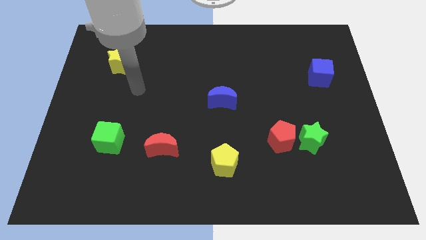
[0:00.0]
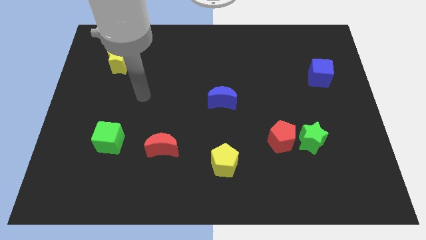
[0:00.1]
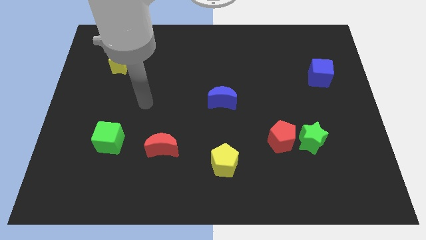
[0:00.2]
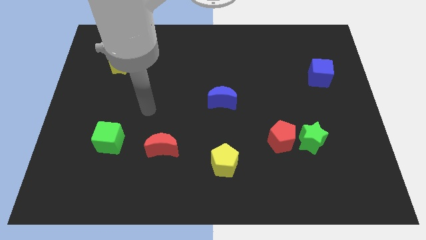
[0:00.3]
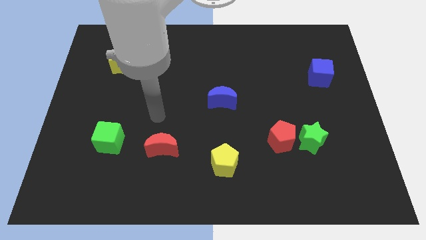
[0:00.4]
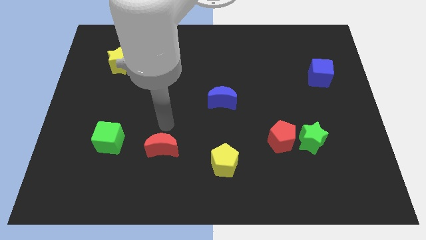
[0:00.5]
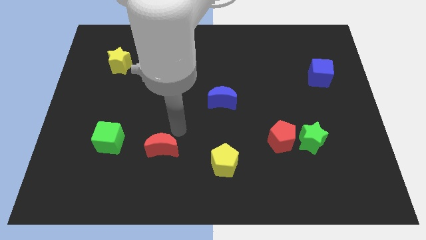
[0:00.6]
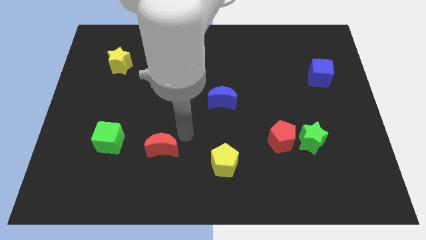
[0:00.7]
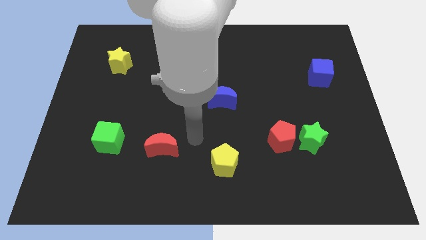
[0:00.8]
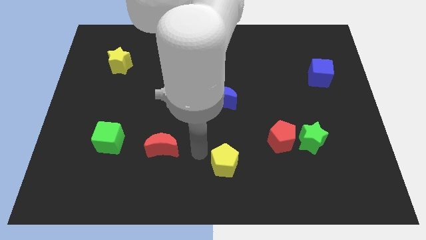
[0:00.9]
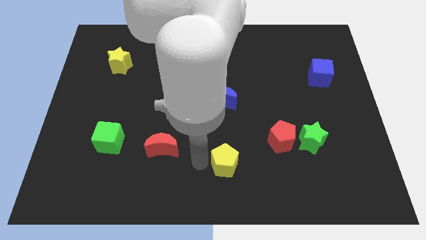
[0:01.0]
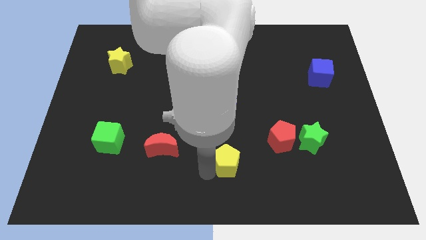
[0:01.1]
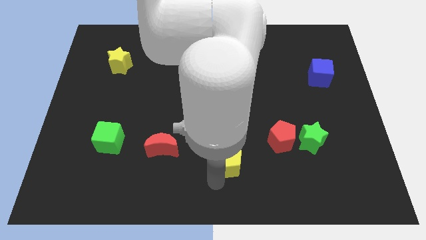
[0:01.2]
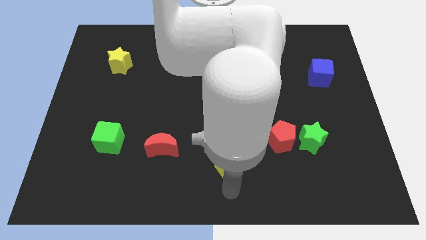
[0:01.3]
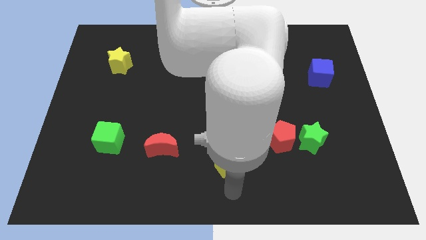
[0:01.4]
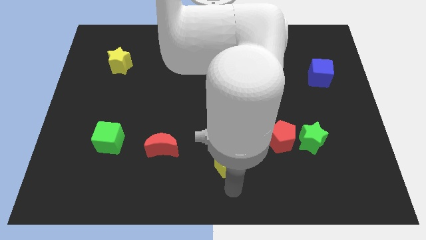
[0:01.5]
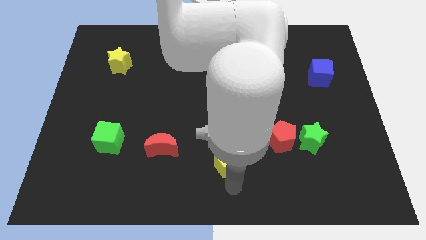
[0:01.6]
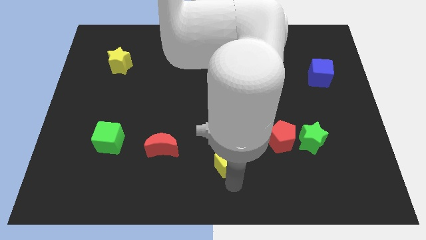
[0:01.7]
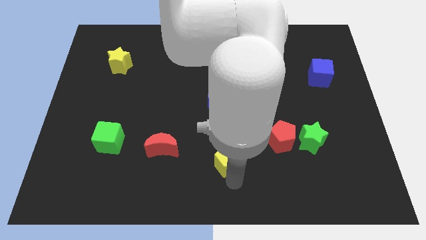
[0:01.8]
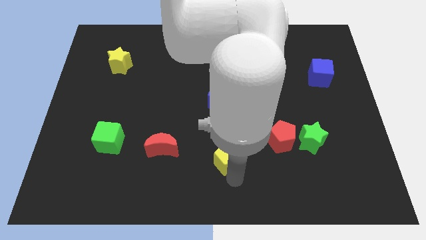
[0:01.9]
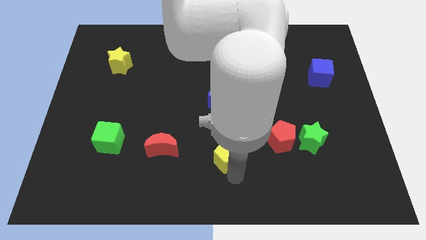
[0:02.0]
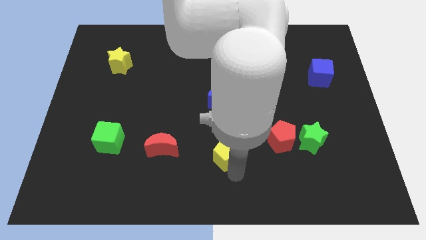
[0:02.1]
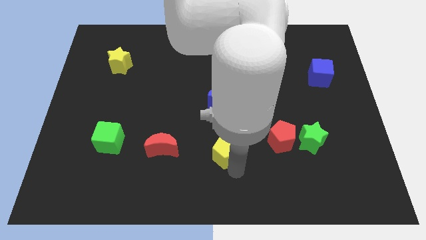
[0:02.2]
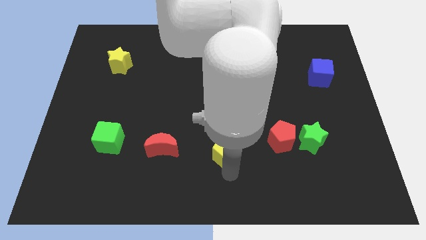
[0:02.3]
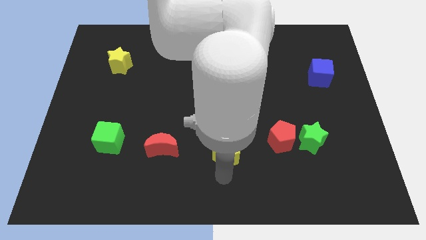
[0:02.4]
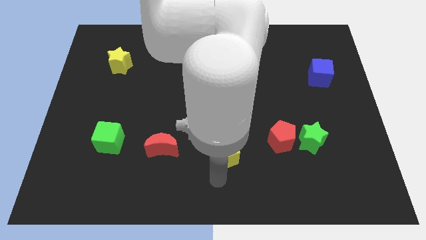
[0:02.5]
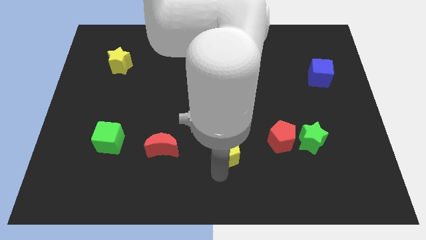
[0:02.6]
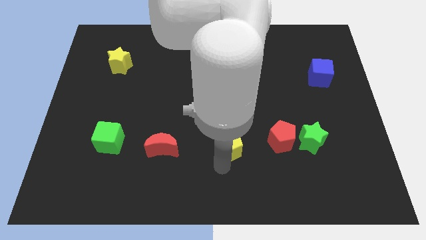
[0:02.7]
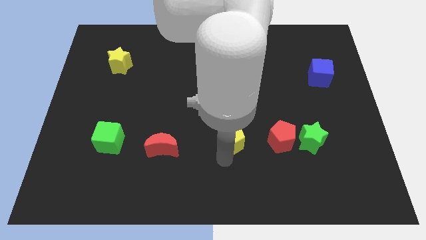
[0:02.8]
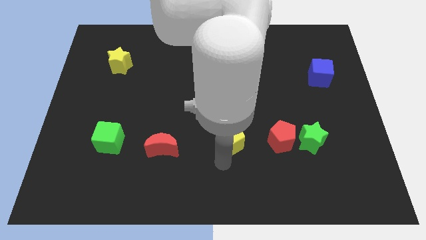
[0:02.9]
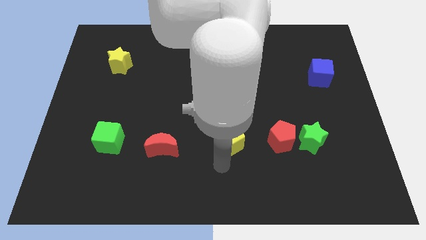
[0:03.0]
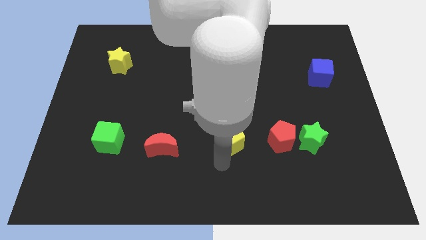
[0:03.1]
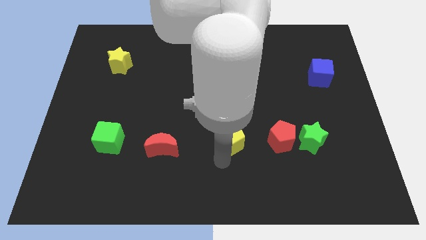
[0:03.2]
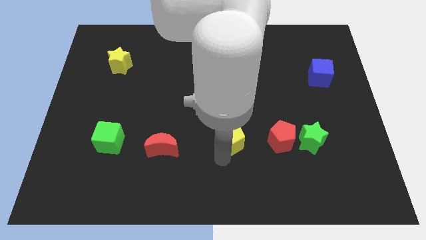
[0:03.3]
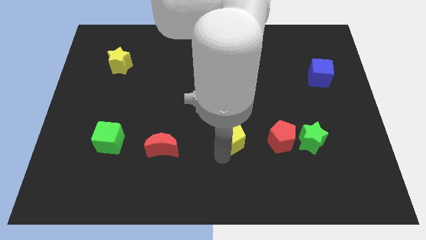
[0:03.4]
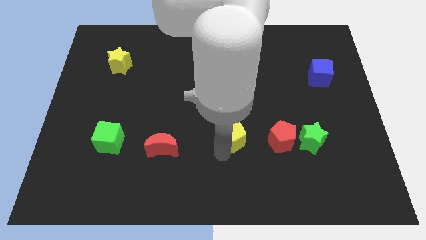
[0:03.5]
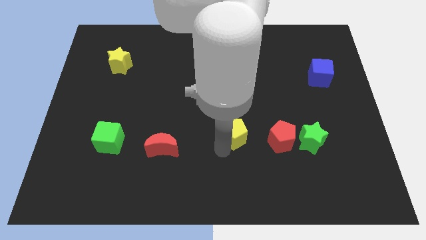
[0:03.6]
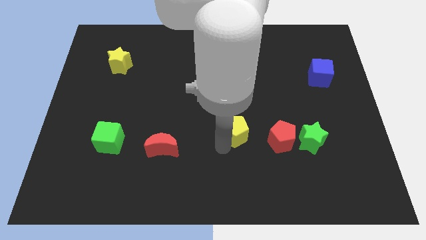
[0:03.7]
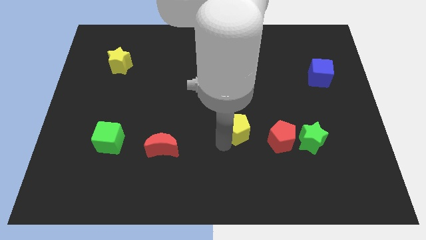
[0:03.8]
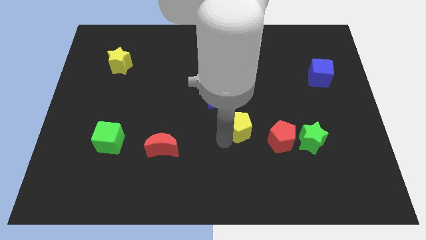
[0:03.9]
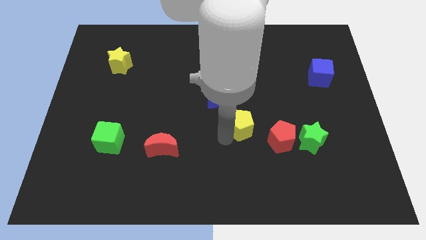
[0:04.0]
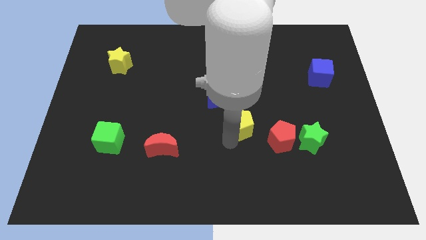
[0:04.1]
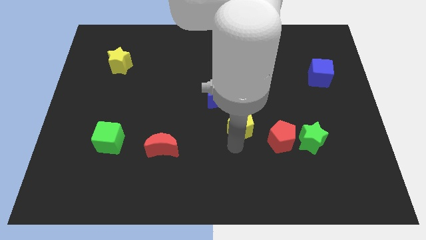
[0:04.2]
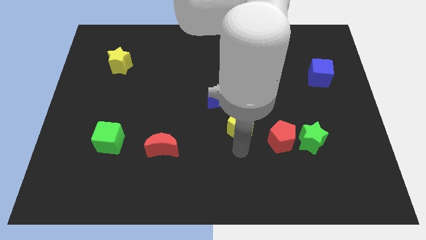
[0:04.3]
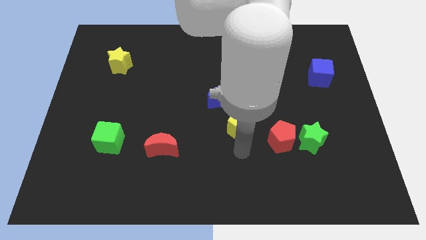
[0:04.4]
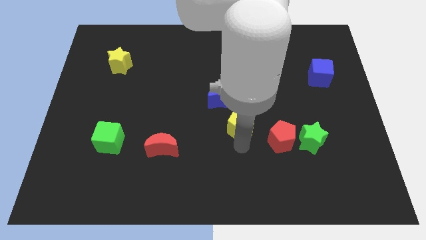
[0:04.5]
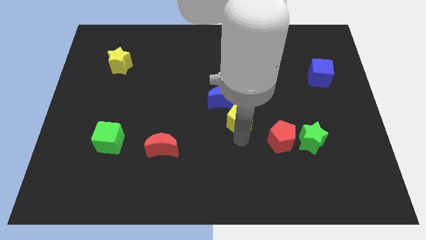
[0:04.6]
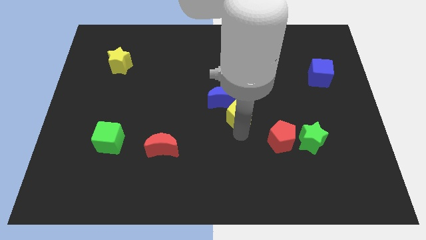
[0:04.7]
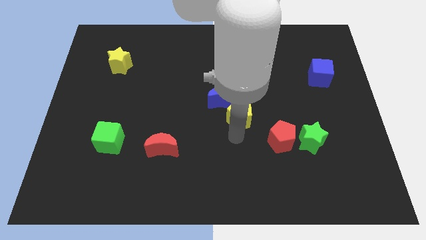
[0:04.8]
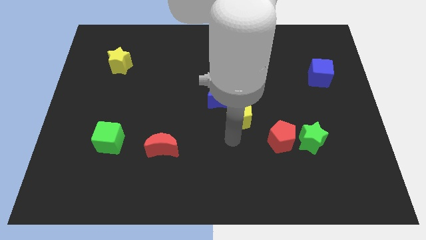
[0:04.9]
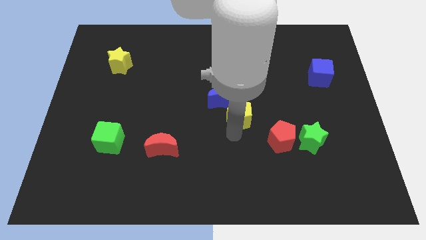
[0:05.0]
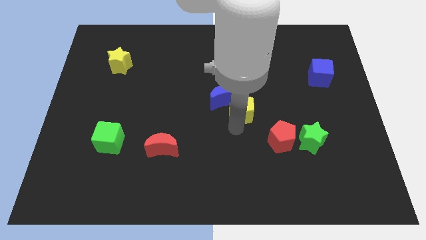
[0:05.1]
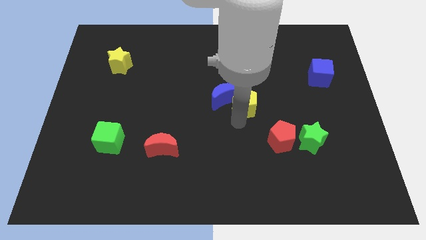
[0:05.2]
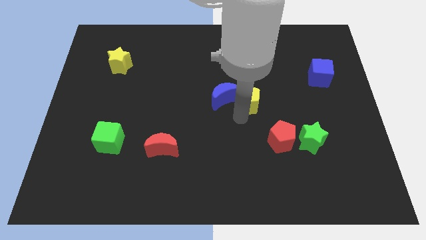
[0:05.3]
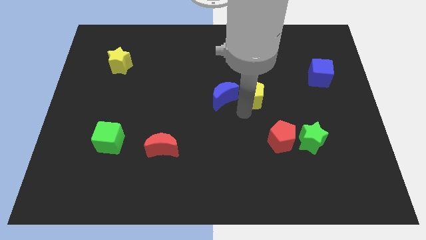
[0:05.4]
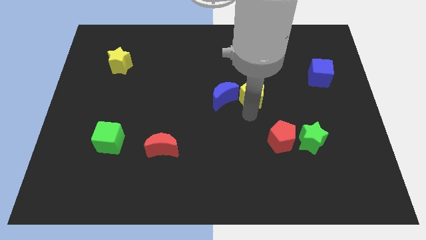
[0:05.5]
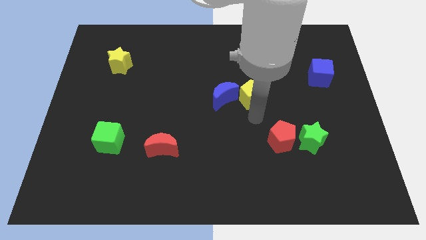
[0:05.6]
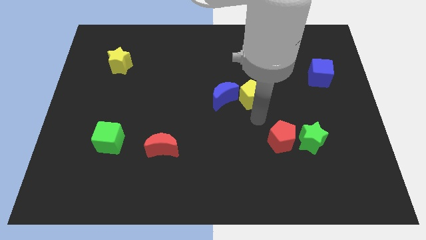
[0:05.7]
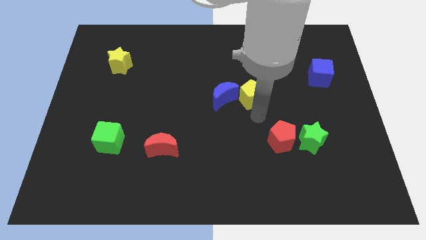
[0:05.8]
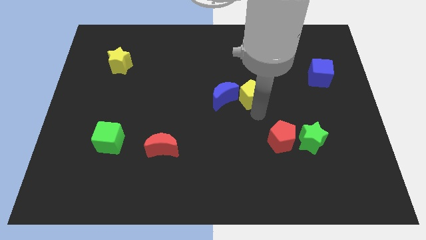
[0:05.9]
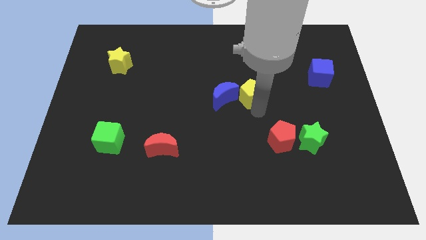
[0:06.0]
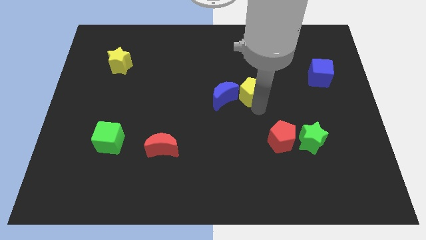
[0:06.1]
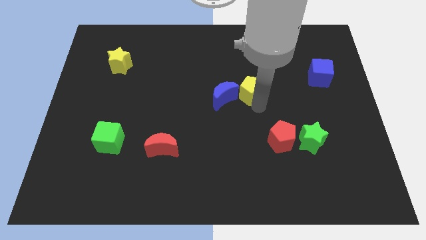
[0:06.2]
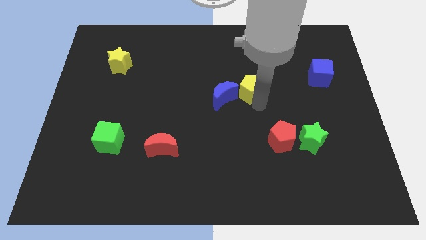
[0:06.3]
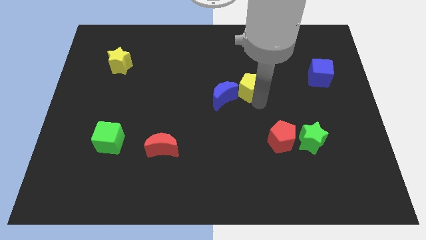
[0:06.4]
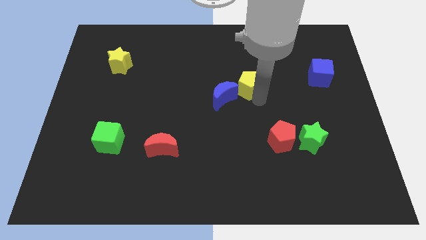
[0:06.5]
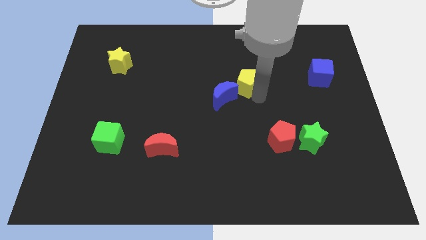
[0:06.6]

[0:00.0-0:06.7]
slide the yellow pentagon up

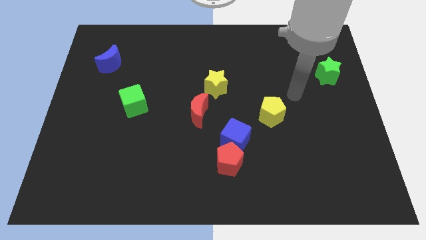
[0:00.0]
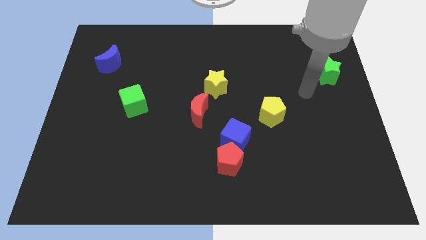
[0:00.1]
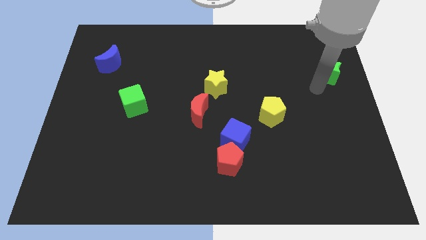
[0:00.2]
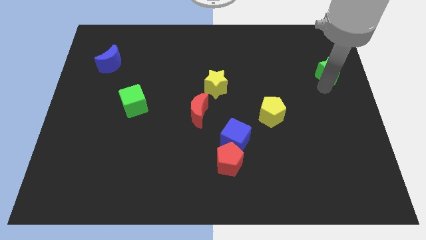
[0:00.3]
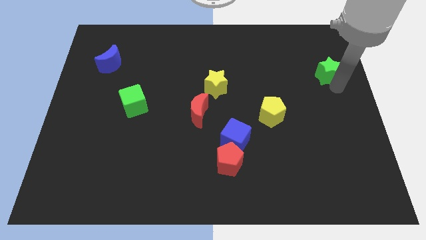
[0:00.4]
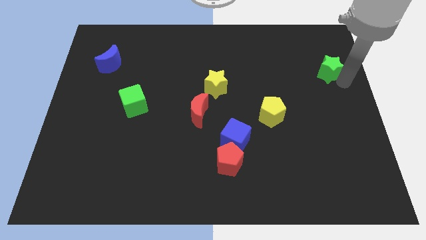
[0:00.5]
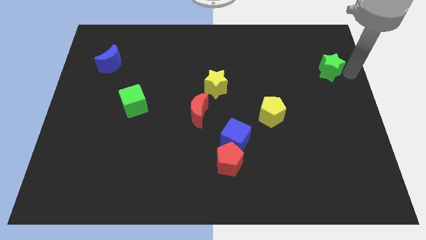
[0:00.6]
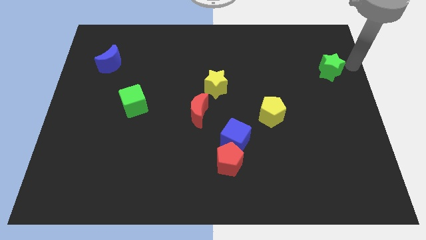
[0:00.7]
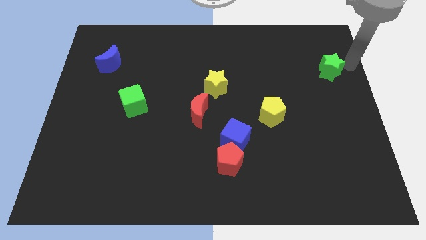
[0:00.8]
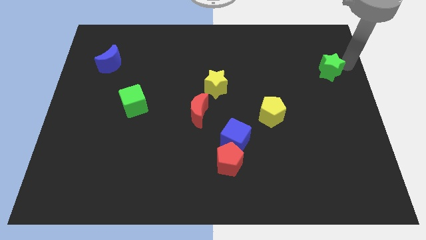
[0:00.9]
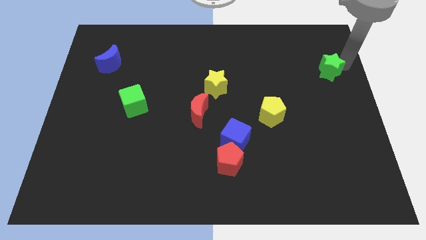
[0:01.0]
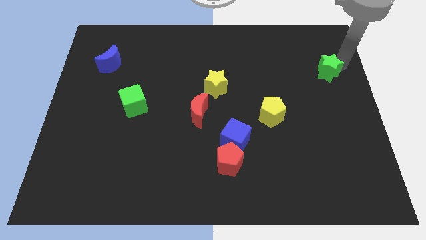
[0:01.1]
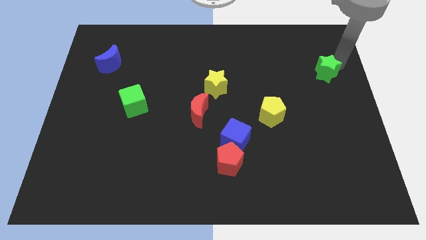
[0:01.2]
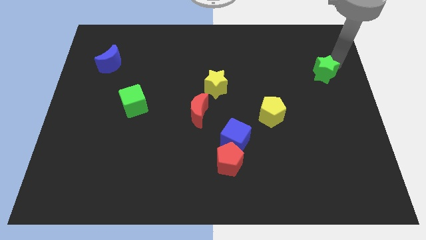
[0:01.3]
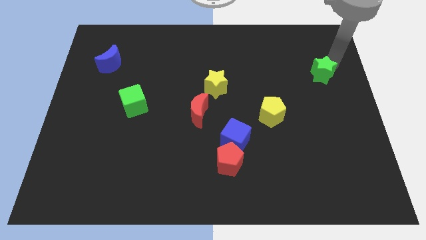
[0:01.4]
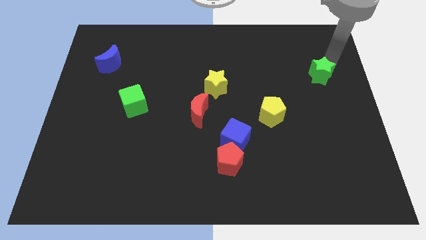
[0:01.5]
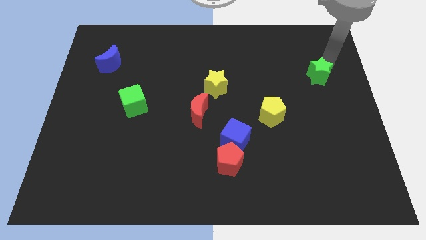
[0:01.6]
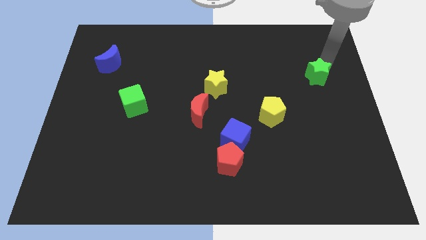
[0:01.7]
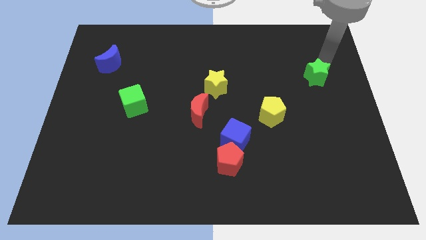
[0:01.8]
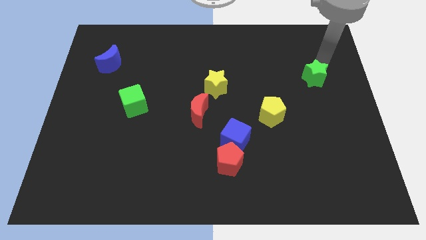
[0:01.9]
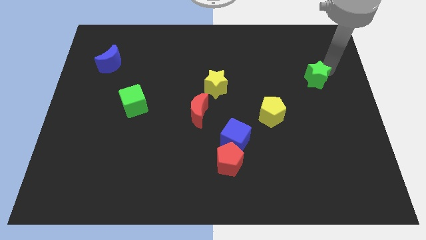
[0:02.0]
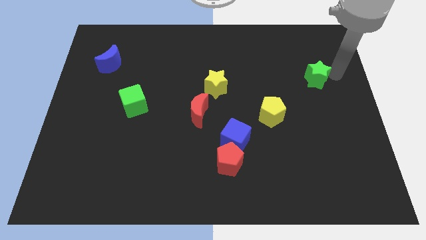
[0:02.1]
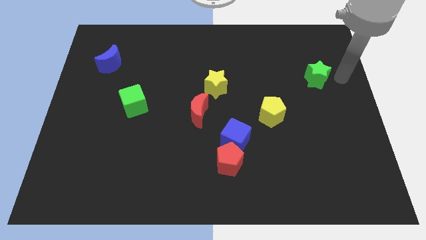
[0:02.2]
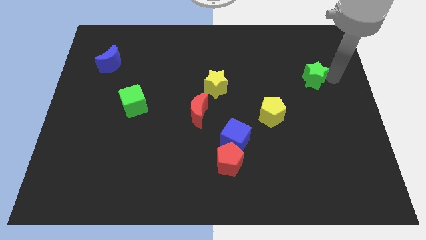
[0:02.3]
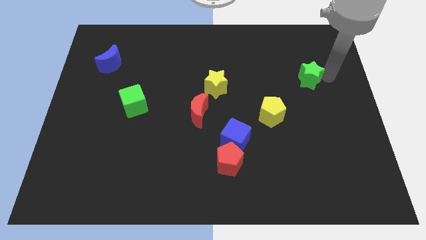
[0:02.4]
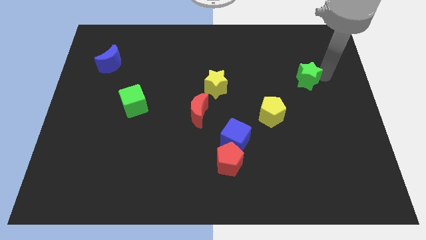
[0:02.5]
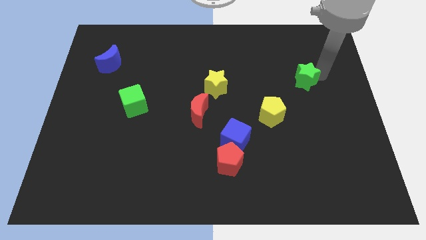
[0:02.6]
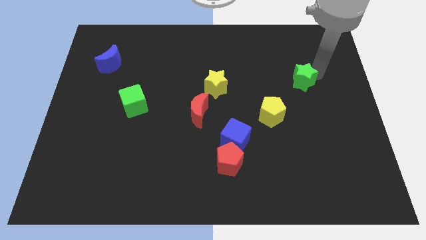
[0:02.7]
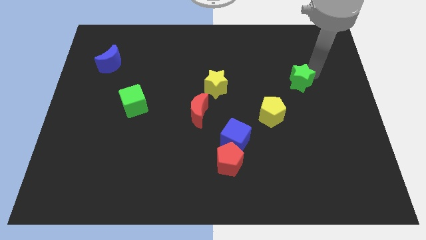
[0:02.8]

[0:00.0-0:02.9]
move the green star slightly left
